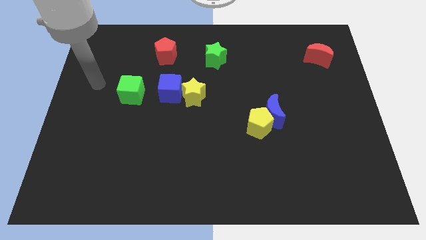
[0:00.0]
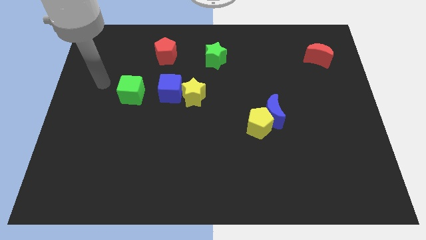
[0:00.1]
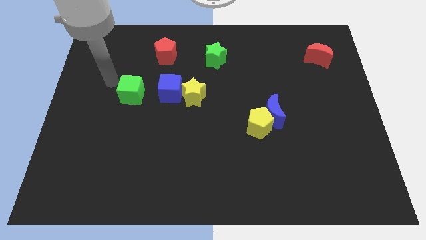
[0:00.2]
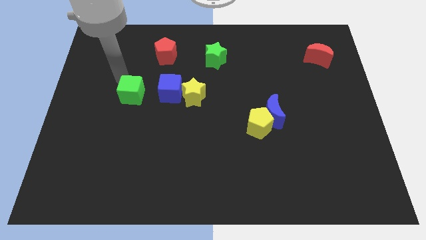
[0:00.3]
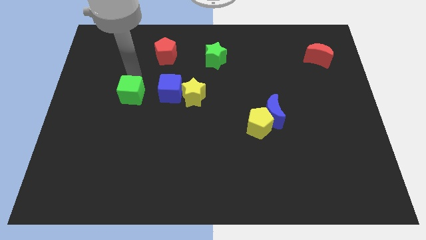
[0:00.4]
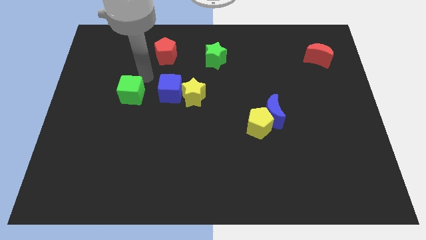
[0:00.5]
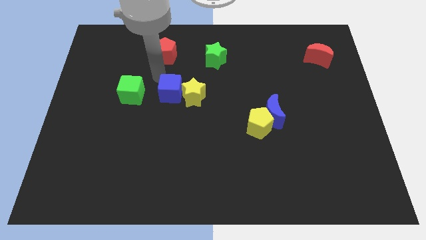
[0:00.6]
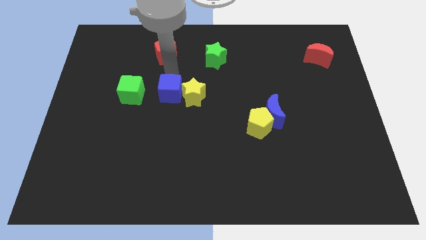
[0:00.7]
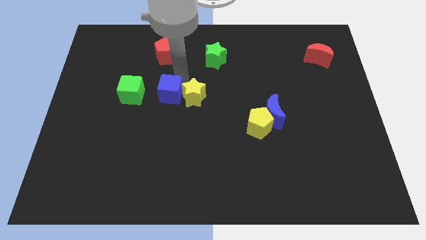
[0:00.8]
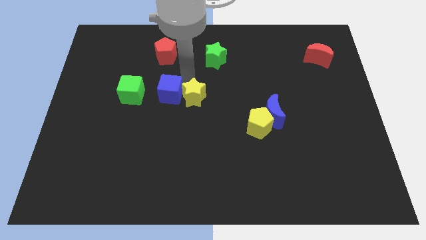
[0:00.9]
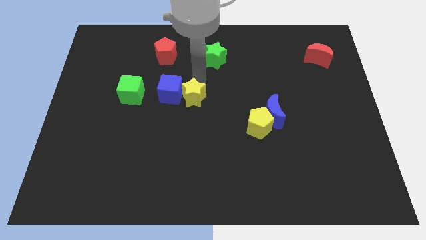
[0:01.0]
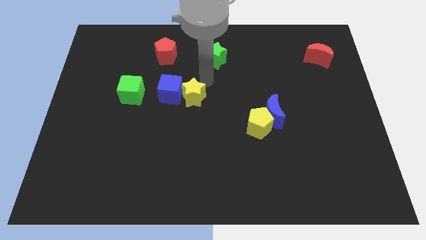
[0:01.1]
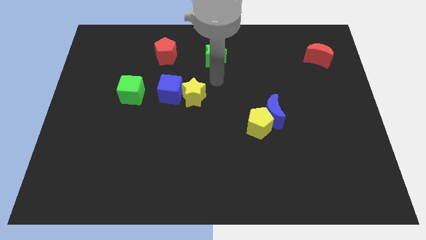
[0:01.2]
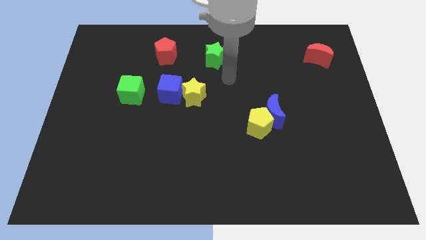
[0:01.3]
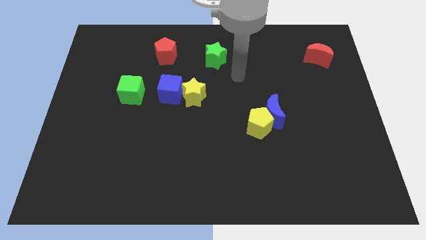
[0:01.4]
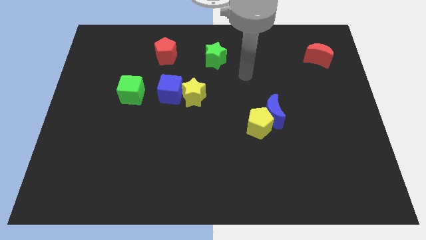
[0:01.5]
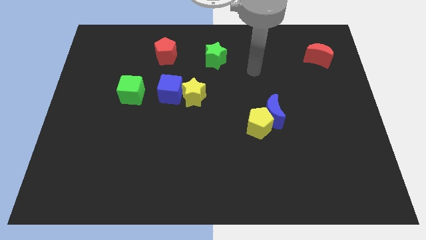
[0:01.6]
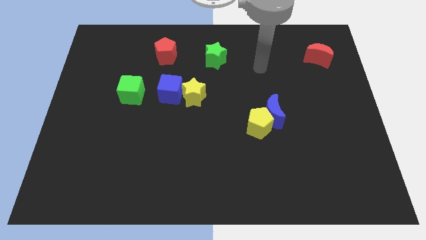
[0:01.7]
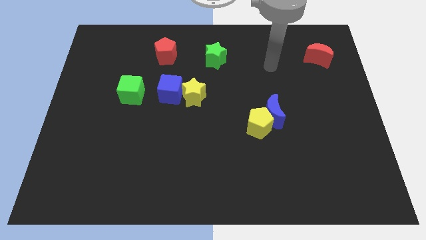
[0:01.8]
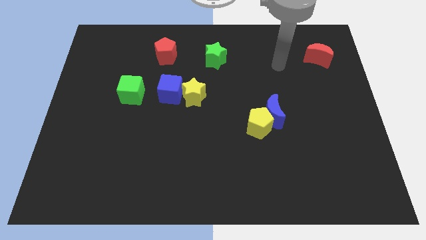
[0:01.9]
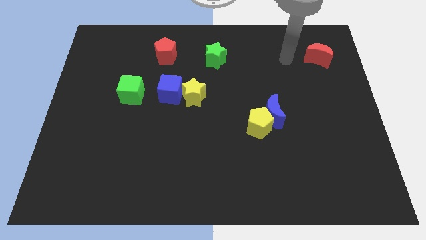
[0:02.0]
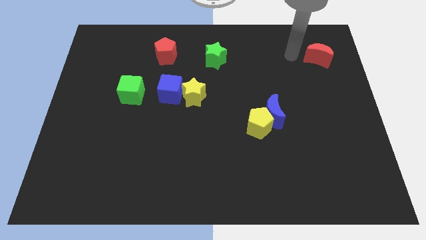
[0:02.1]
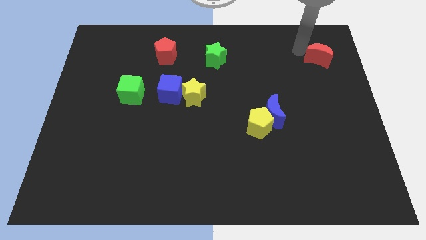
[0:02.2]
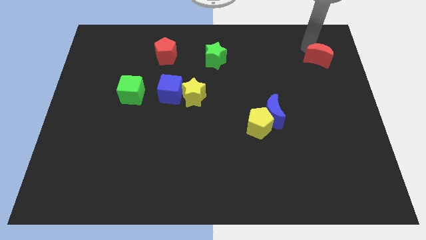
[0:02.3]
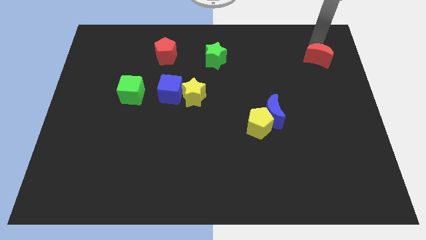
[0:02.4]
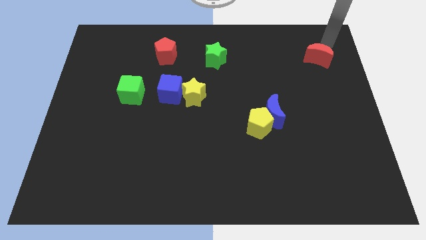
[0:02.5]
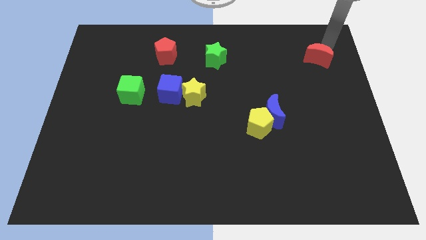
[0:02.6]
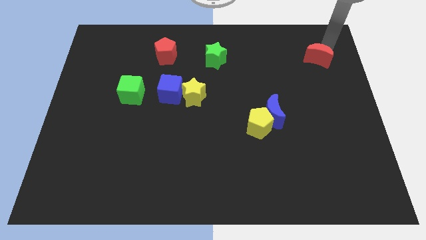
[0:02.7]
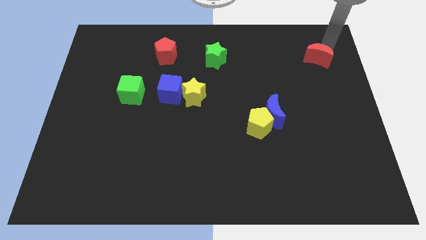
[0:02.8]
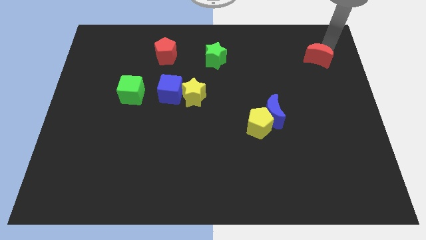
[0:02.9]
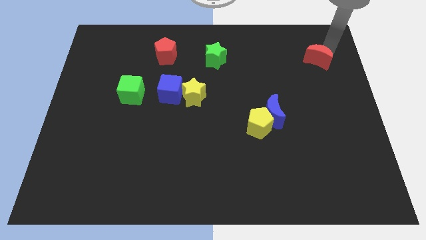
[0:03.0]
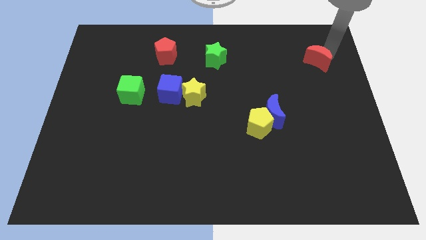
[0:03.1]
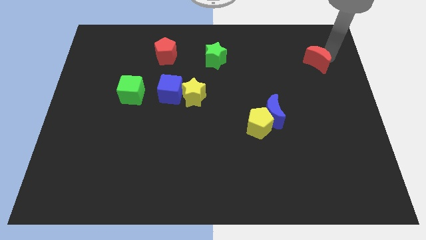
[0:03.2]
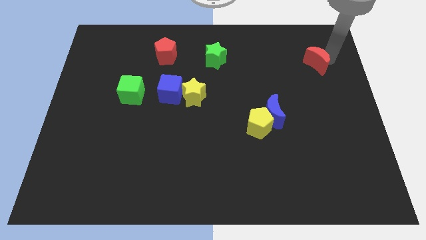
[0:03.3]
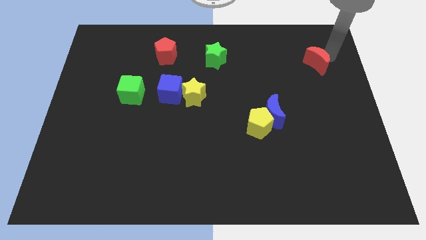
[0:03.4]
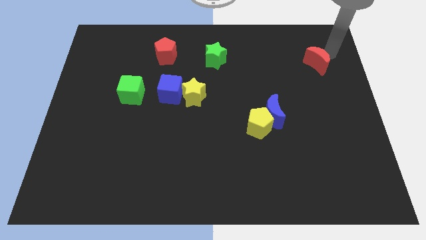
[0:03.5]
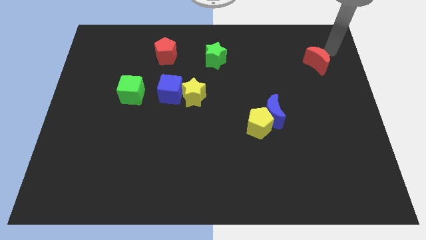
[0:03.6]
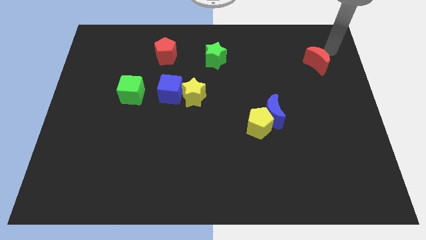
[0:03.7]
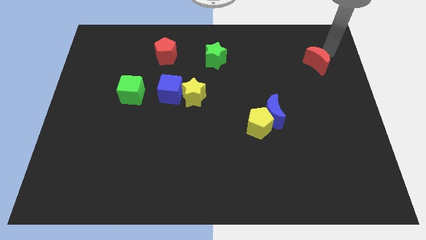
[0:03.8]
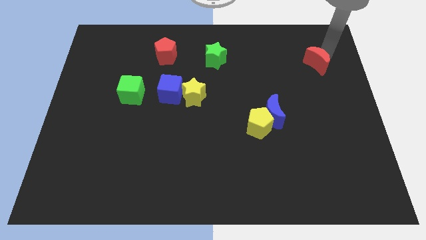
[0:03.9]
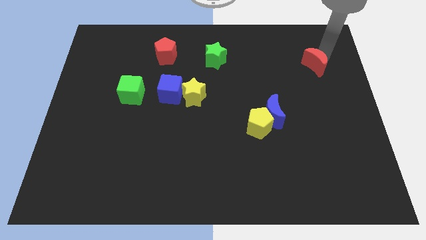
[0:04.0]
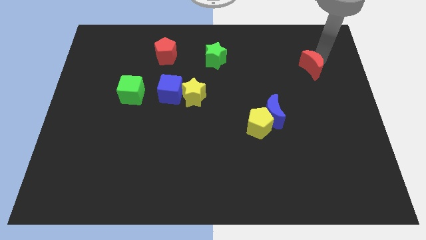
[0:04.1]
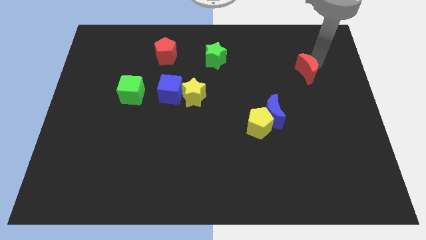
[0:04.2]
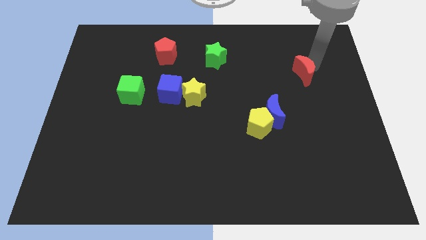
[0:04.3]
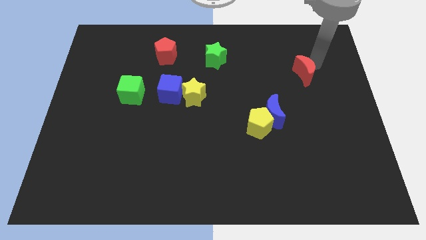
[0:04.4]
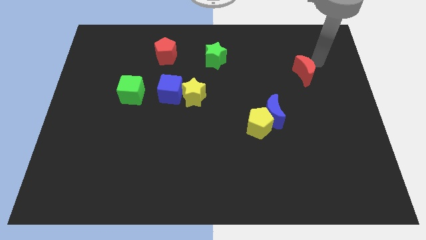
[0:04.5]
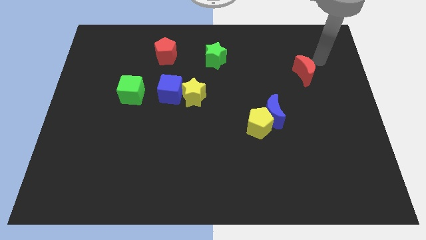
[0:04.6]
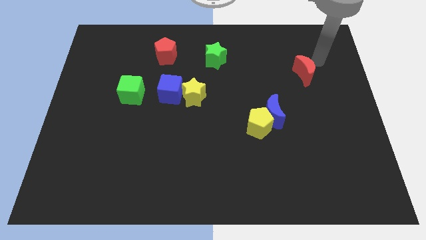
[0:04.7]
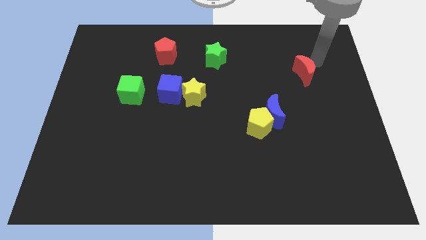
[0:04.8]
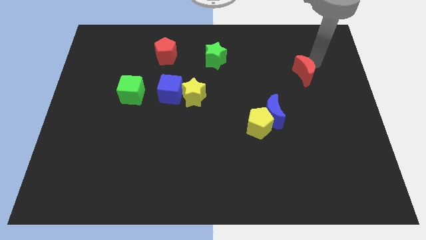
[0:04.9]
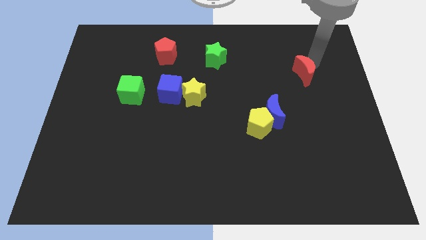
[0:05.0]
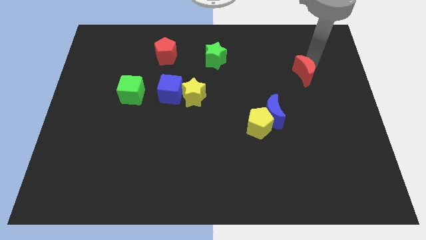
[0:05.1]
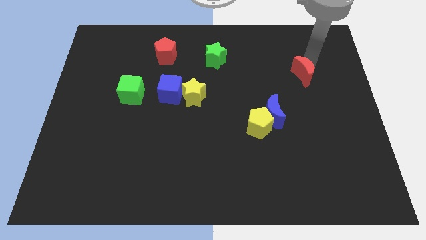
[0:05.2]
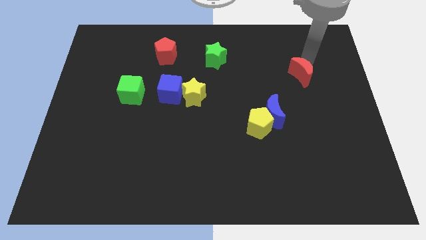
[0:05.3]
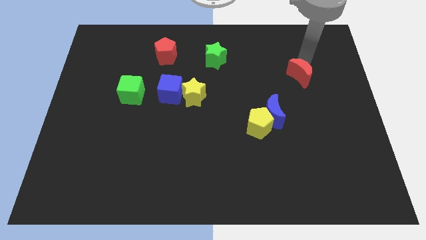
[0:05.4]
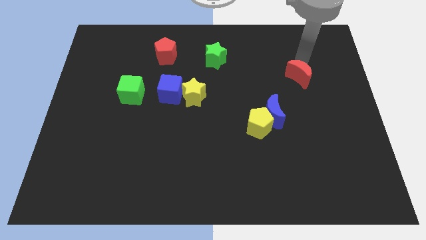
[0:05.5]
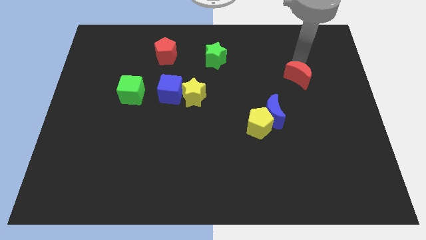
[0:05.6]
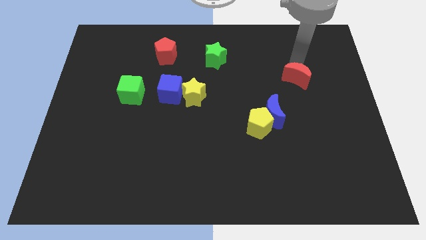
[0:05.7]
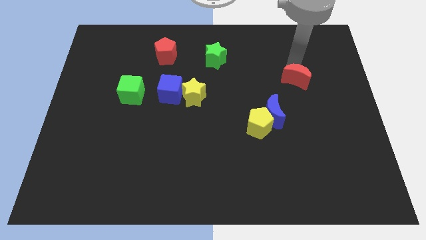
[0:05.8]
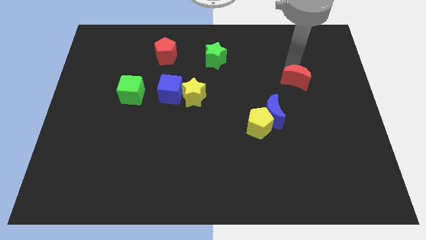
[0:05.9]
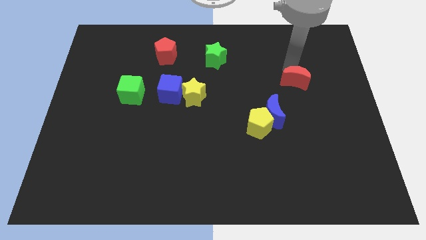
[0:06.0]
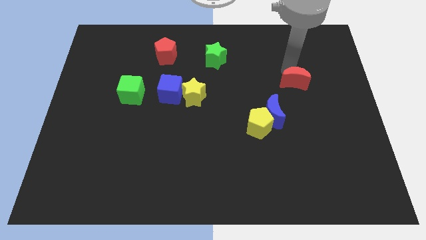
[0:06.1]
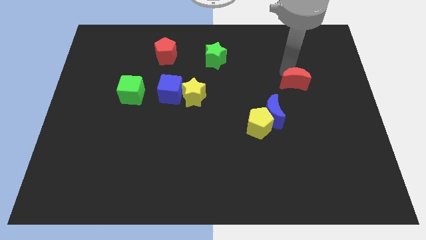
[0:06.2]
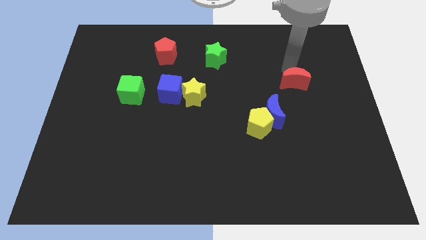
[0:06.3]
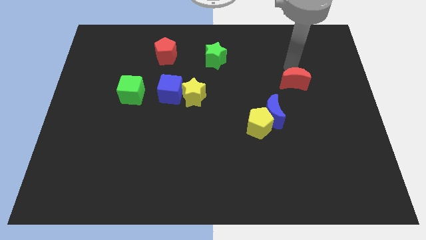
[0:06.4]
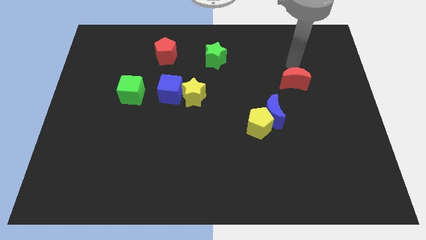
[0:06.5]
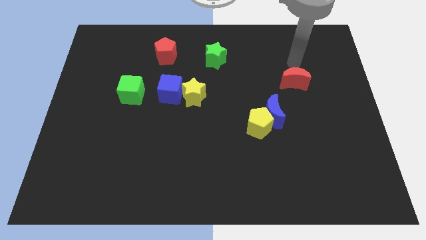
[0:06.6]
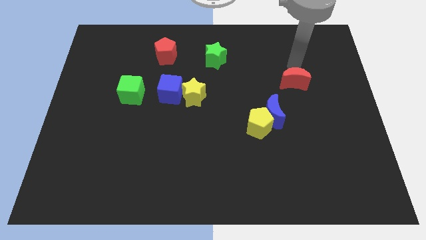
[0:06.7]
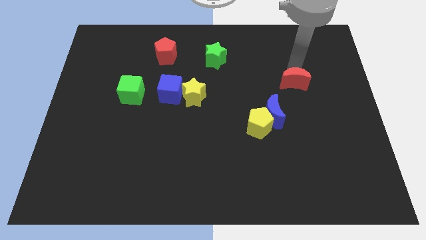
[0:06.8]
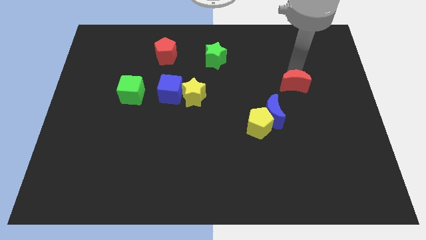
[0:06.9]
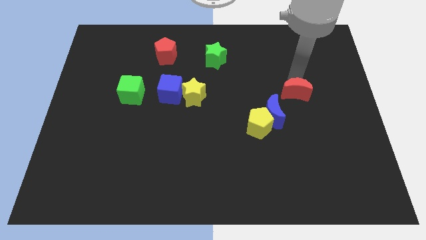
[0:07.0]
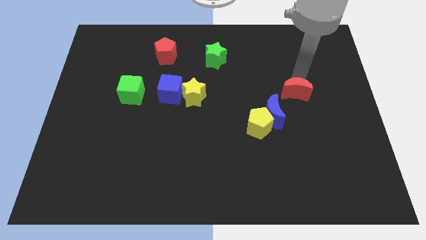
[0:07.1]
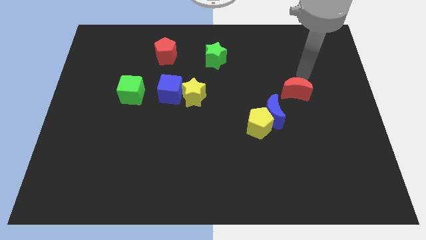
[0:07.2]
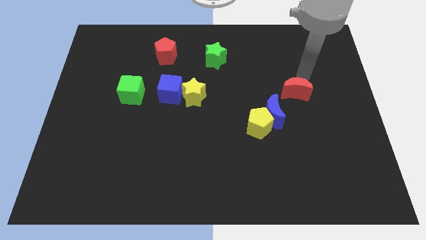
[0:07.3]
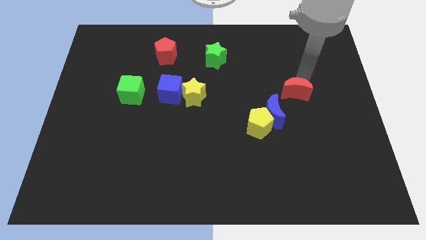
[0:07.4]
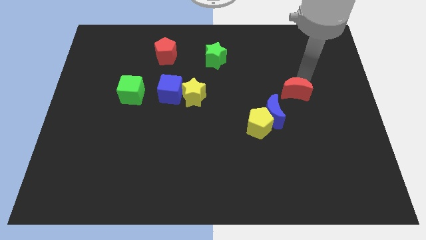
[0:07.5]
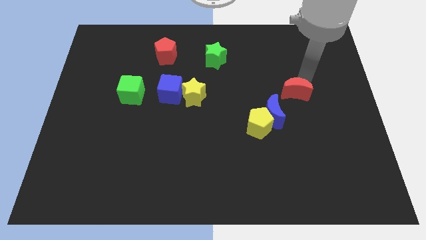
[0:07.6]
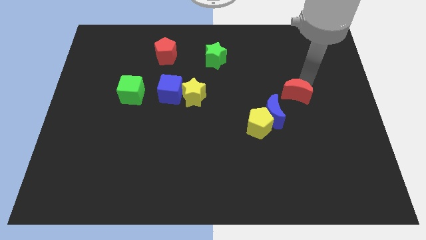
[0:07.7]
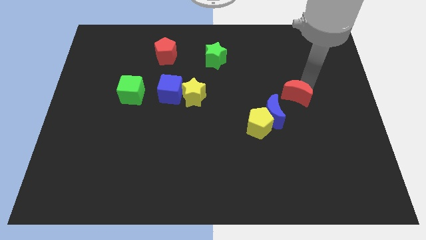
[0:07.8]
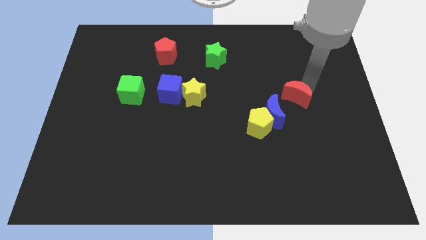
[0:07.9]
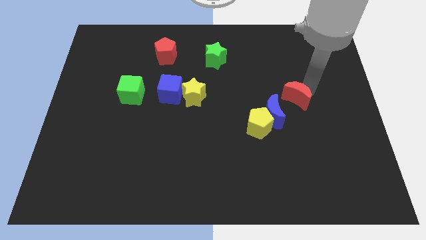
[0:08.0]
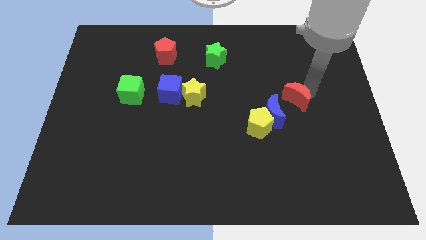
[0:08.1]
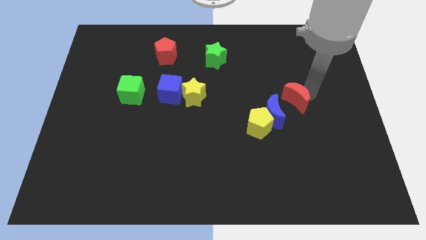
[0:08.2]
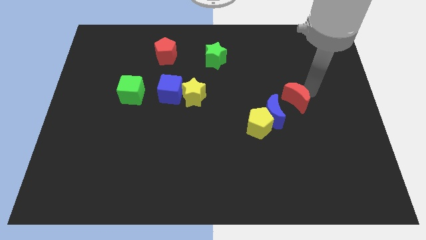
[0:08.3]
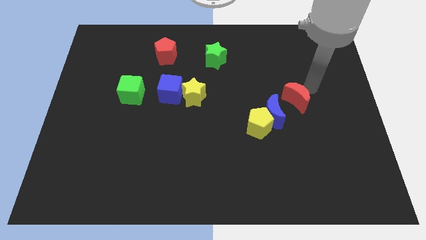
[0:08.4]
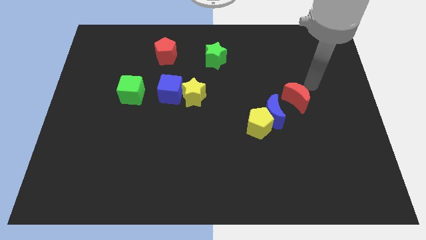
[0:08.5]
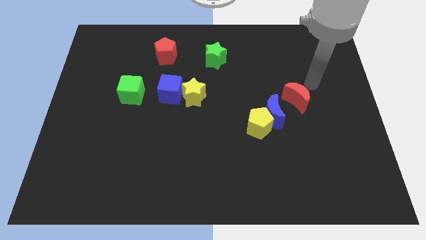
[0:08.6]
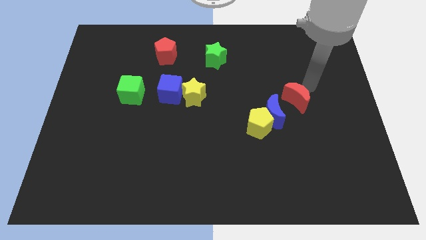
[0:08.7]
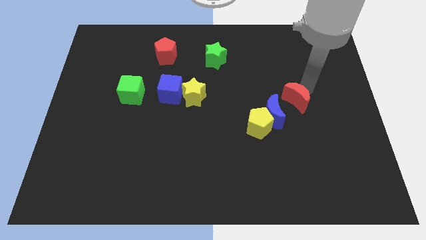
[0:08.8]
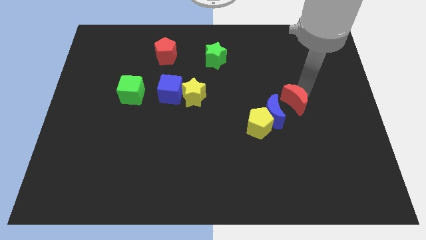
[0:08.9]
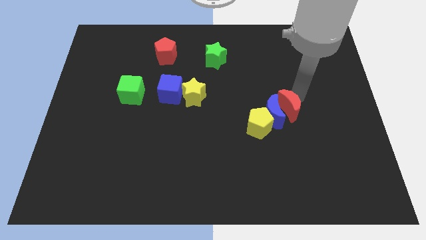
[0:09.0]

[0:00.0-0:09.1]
move the red moon towards the blue moon
